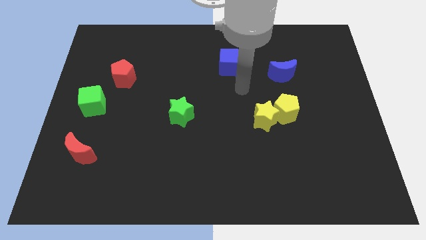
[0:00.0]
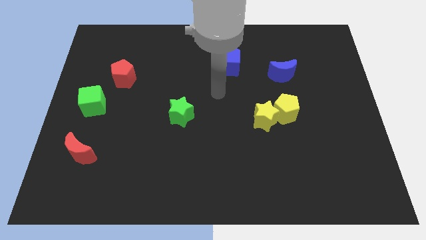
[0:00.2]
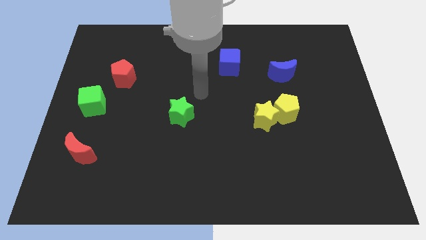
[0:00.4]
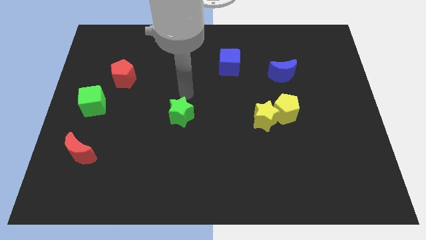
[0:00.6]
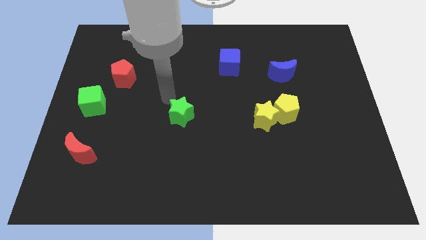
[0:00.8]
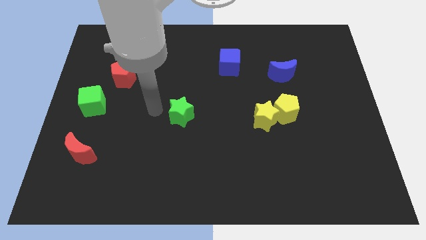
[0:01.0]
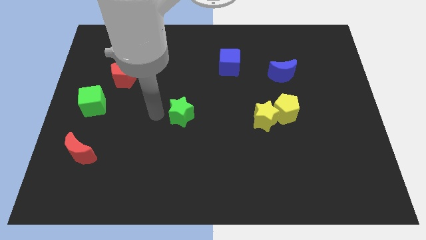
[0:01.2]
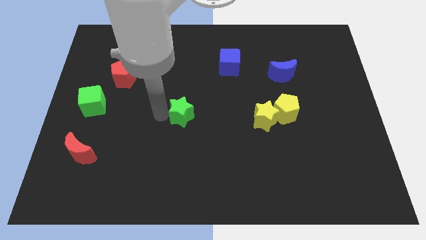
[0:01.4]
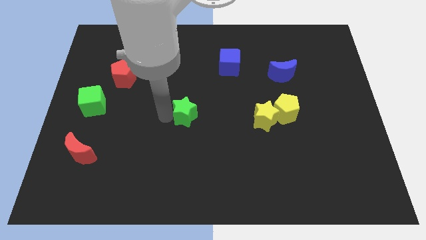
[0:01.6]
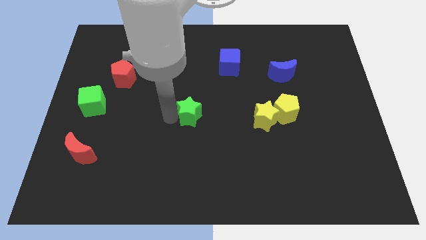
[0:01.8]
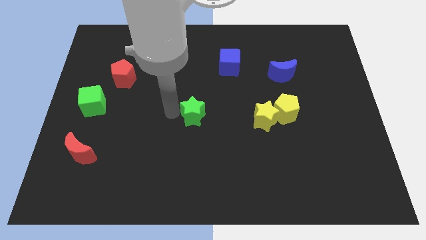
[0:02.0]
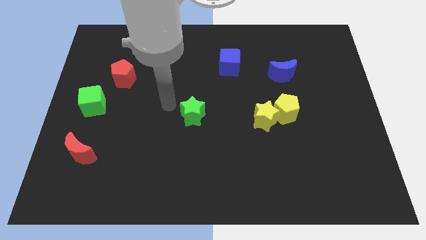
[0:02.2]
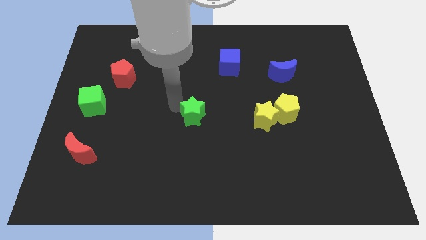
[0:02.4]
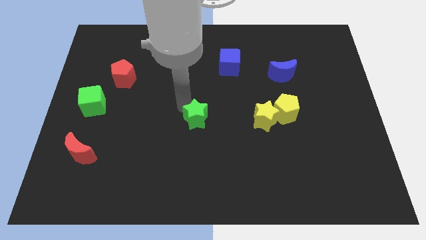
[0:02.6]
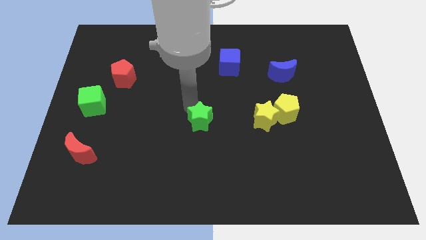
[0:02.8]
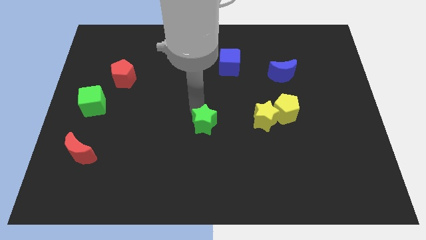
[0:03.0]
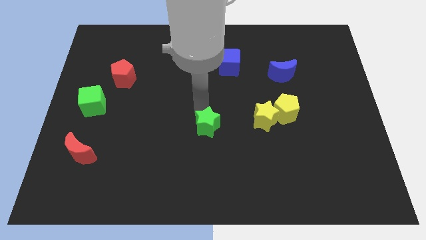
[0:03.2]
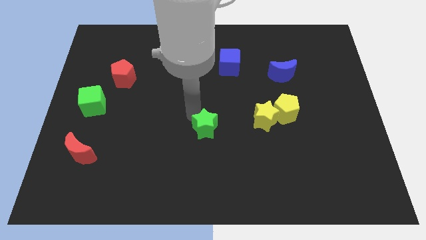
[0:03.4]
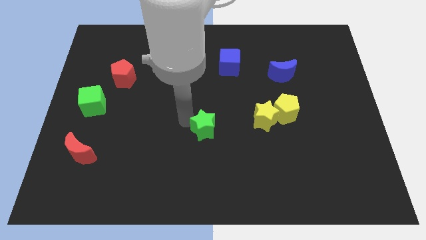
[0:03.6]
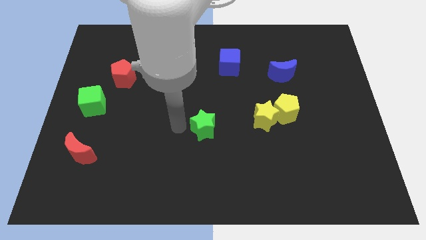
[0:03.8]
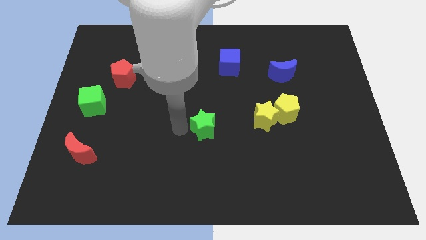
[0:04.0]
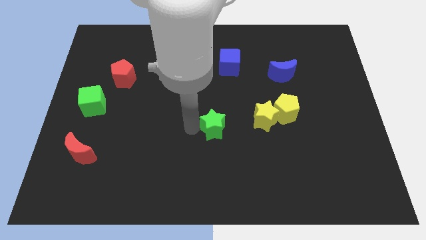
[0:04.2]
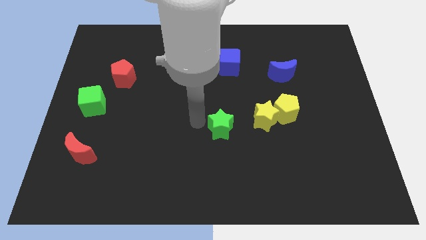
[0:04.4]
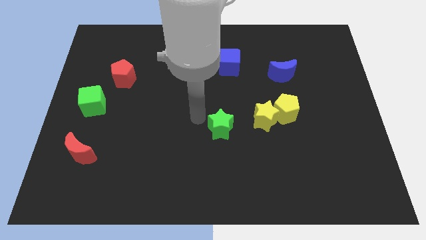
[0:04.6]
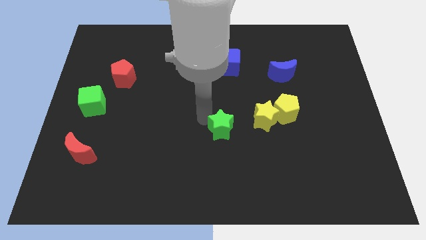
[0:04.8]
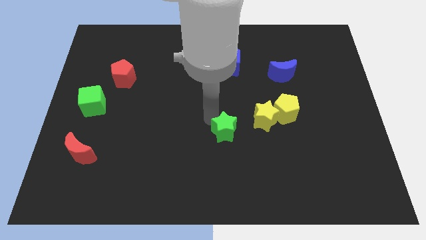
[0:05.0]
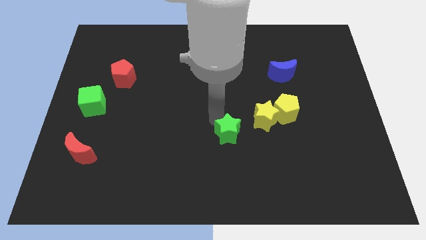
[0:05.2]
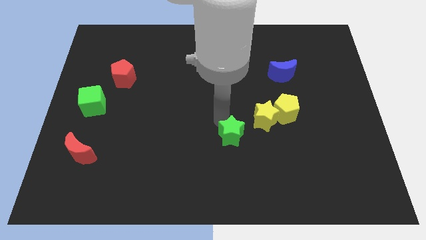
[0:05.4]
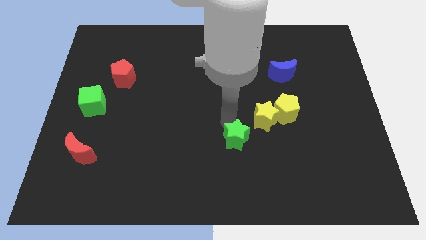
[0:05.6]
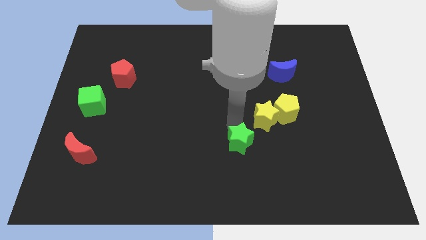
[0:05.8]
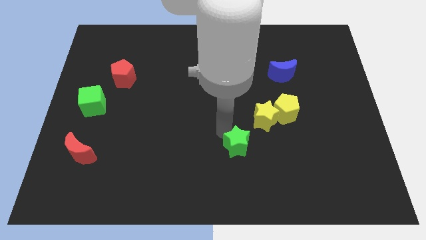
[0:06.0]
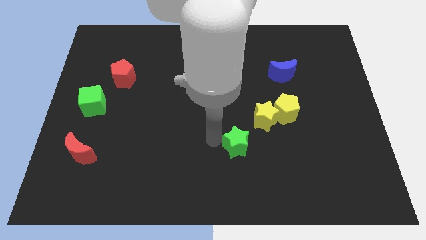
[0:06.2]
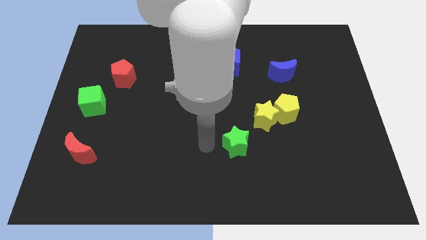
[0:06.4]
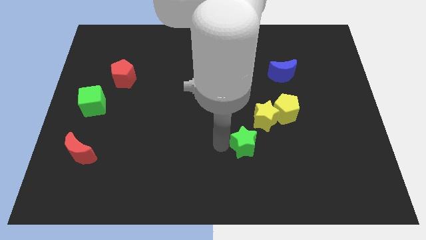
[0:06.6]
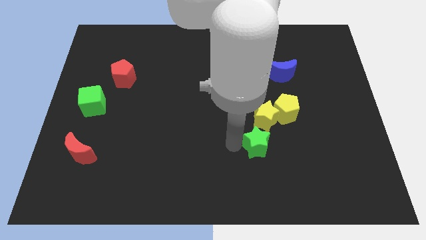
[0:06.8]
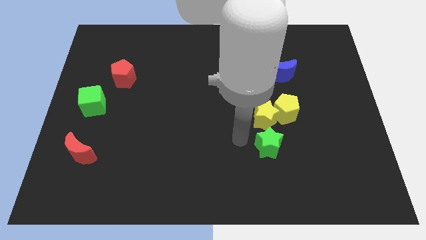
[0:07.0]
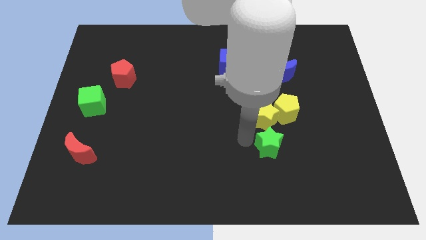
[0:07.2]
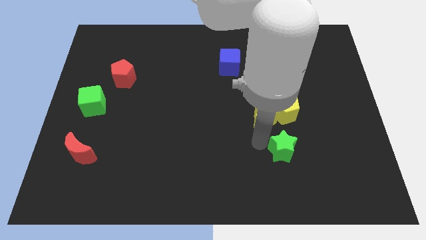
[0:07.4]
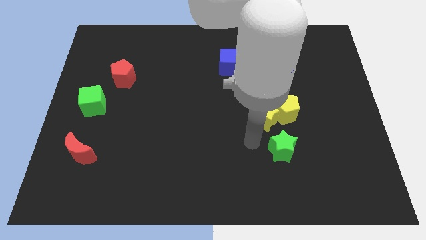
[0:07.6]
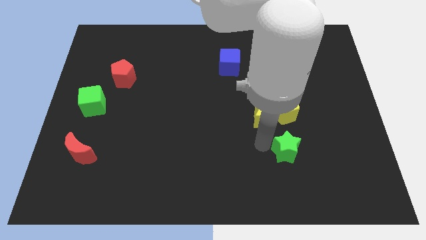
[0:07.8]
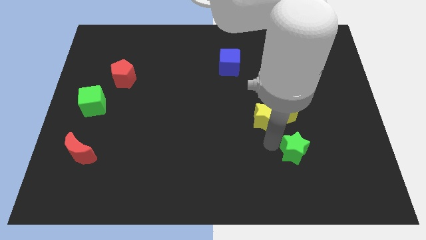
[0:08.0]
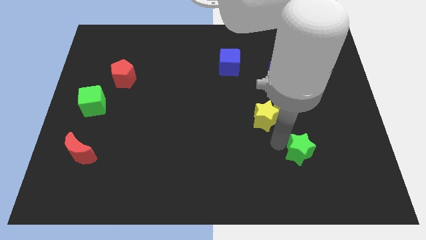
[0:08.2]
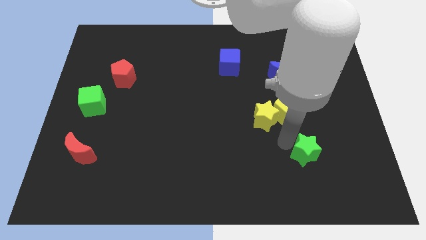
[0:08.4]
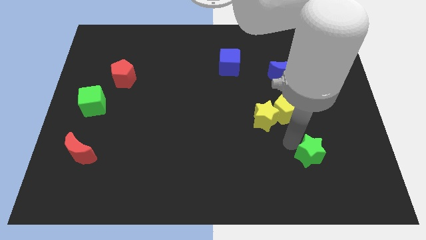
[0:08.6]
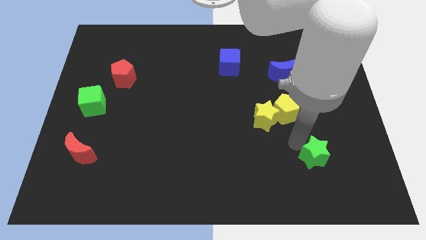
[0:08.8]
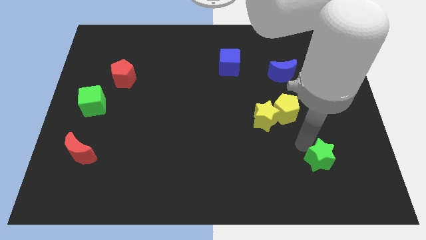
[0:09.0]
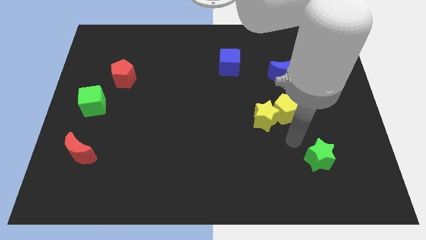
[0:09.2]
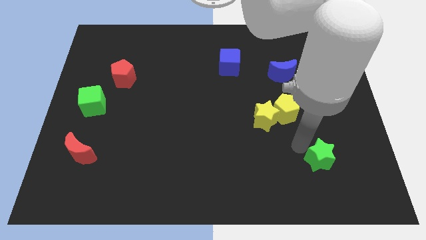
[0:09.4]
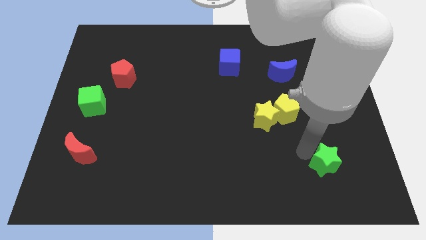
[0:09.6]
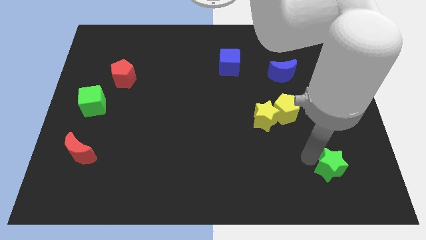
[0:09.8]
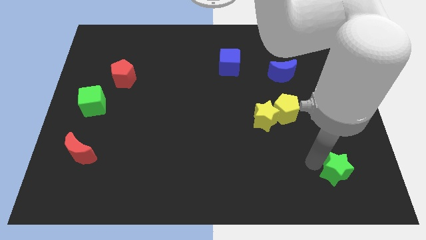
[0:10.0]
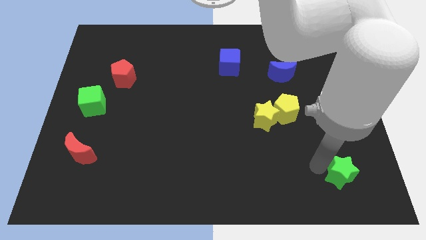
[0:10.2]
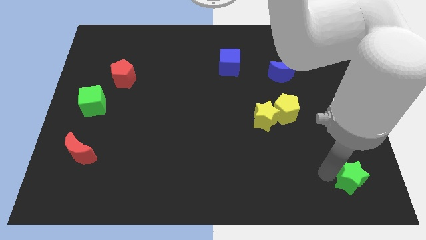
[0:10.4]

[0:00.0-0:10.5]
move the green star to the bottom right corner

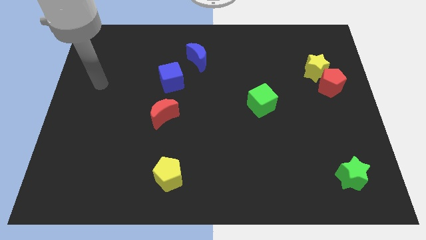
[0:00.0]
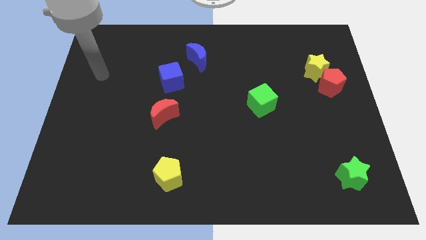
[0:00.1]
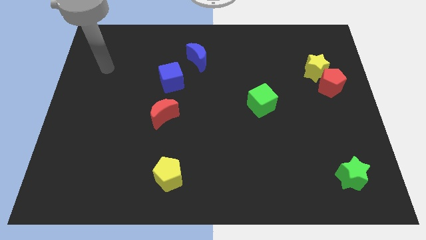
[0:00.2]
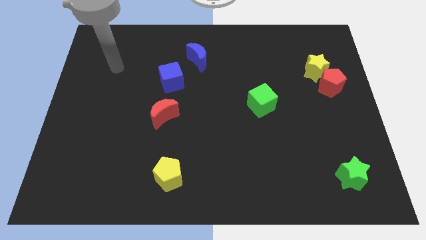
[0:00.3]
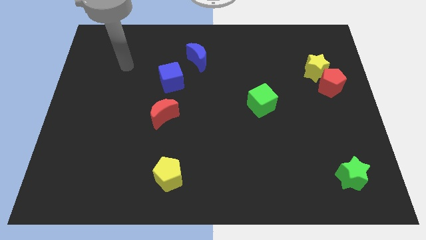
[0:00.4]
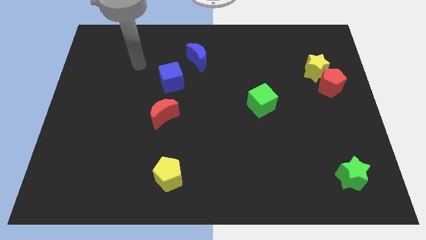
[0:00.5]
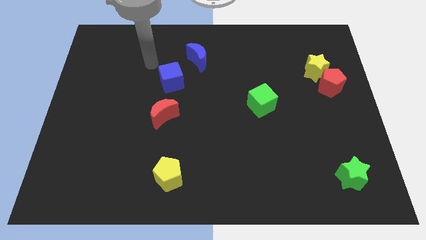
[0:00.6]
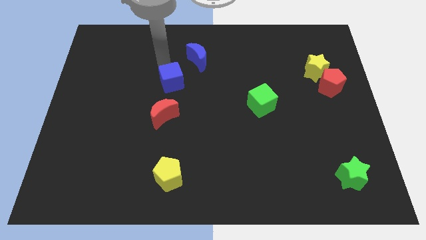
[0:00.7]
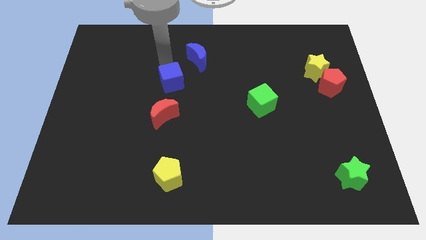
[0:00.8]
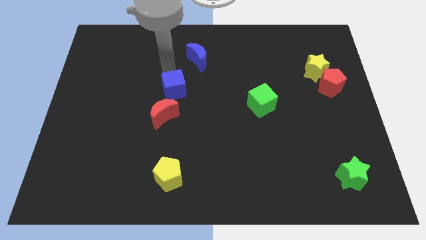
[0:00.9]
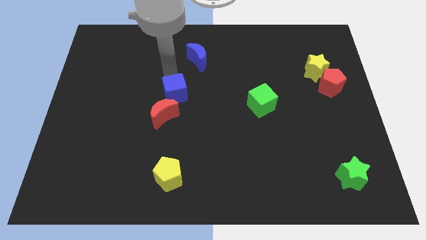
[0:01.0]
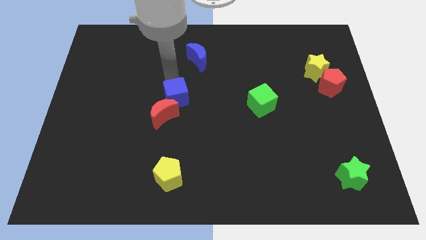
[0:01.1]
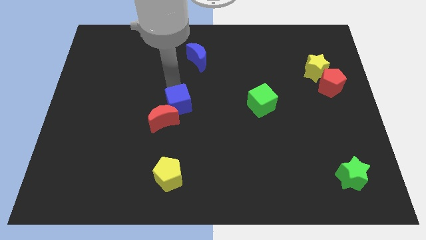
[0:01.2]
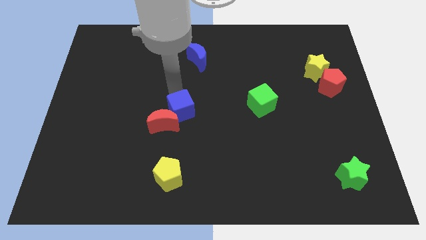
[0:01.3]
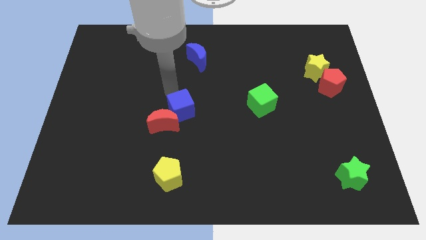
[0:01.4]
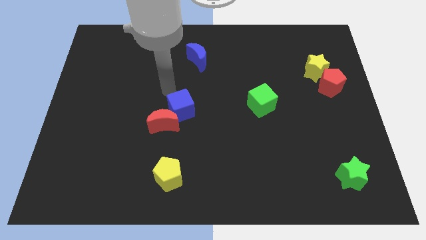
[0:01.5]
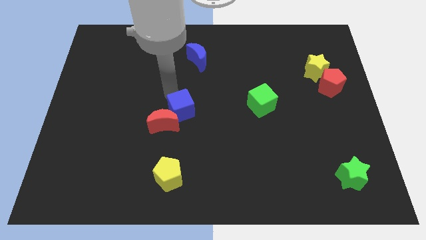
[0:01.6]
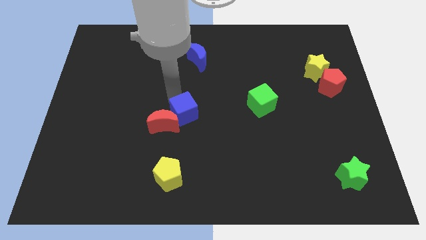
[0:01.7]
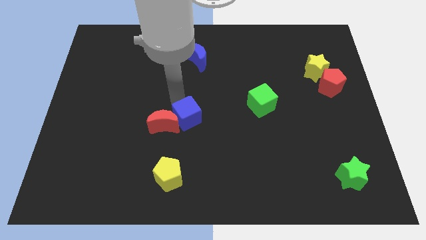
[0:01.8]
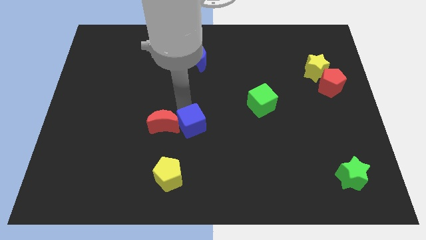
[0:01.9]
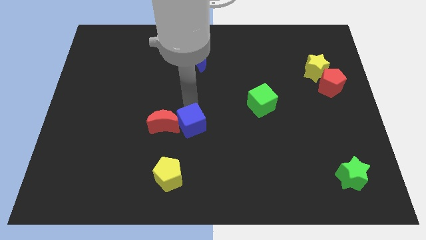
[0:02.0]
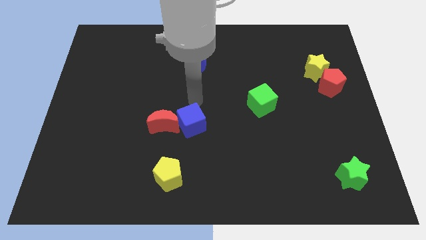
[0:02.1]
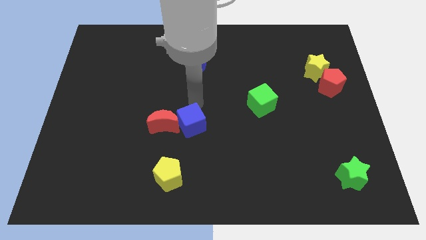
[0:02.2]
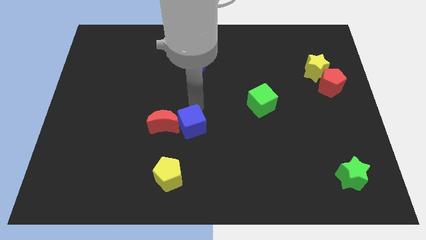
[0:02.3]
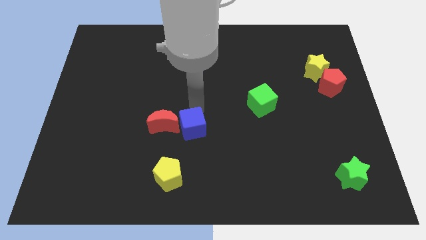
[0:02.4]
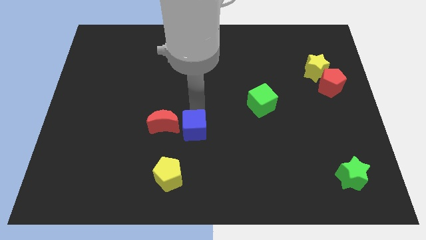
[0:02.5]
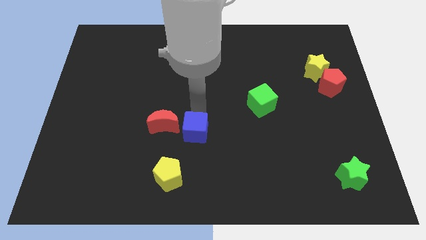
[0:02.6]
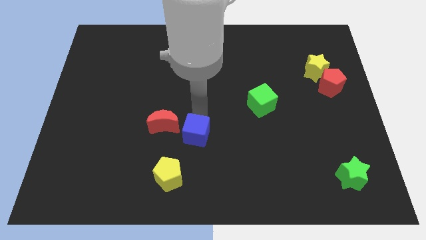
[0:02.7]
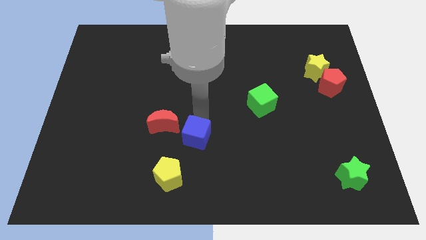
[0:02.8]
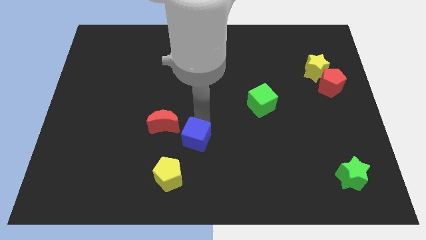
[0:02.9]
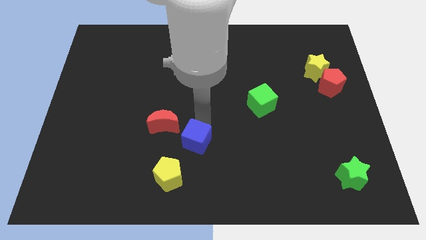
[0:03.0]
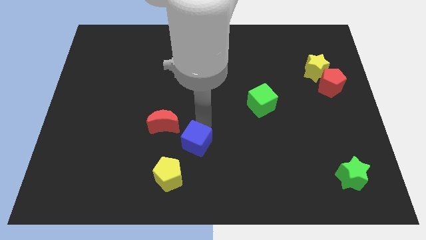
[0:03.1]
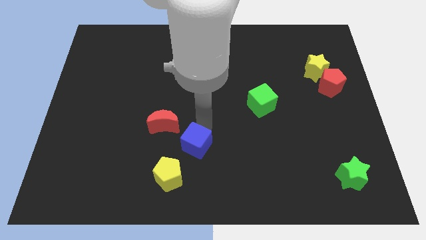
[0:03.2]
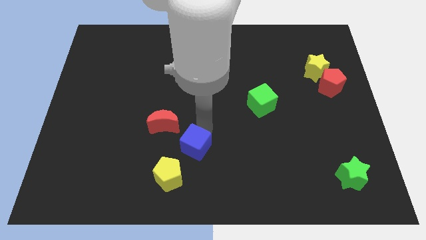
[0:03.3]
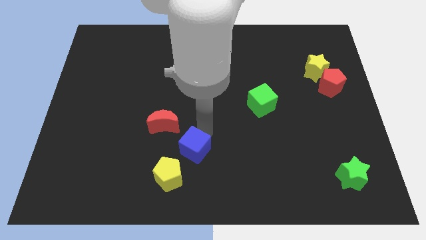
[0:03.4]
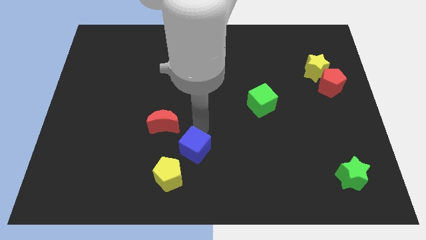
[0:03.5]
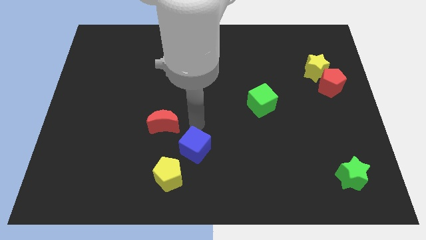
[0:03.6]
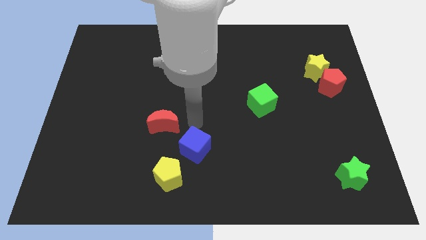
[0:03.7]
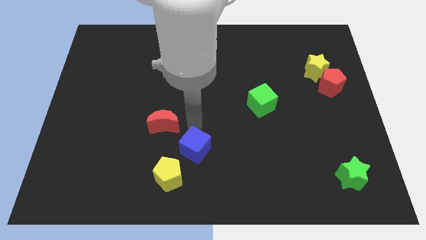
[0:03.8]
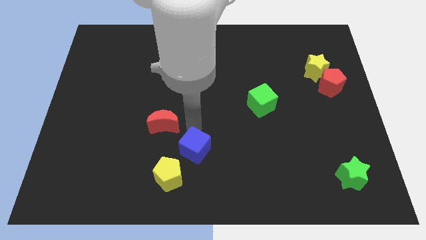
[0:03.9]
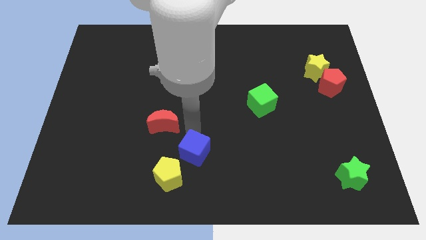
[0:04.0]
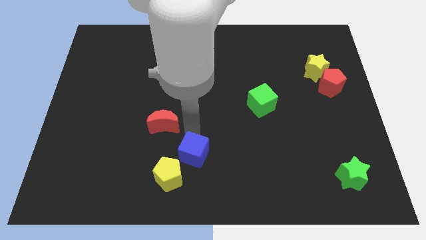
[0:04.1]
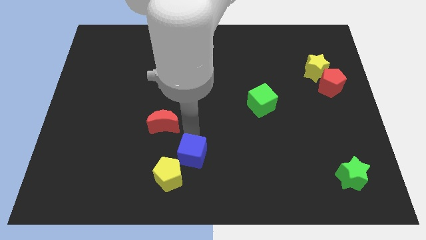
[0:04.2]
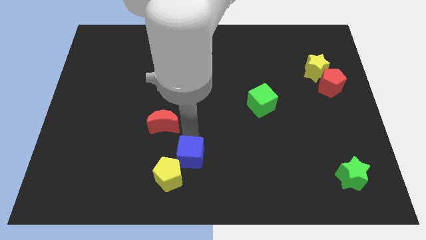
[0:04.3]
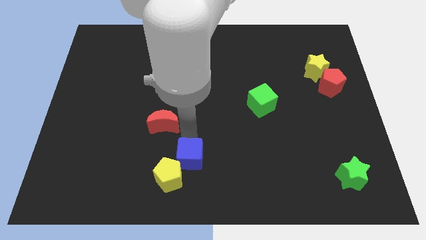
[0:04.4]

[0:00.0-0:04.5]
push the blue cube to the bottom side
